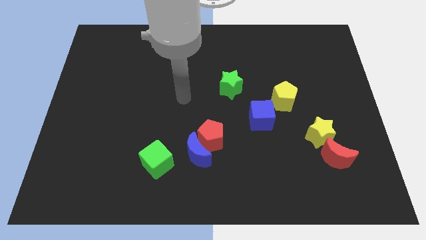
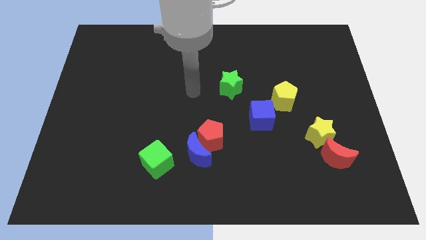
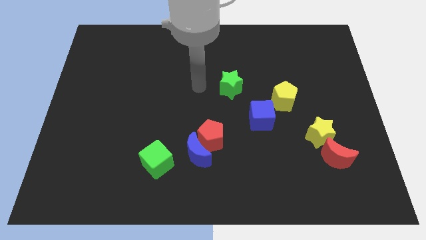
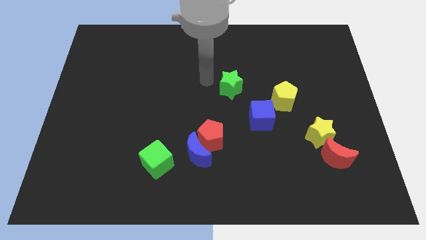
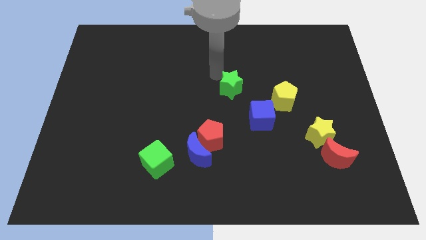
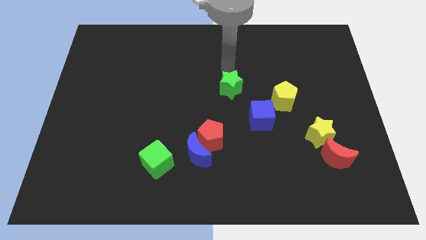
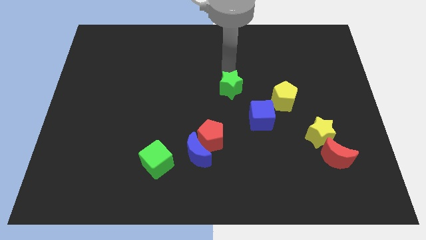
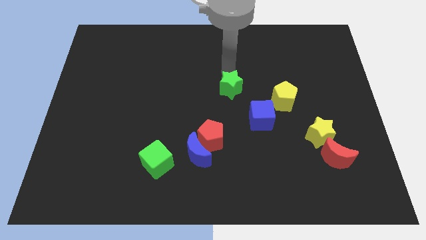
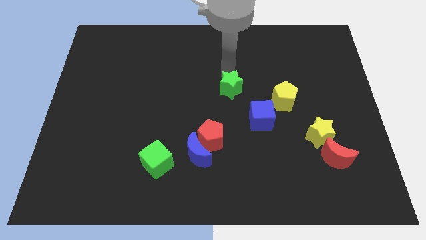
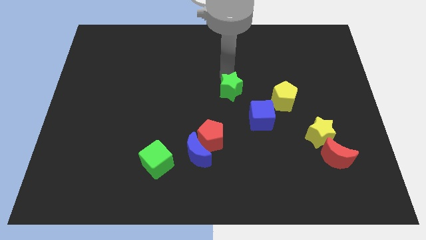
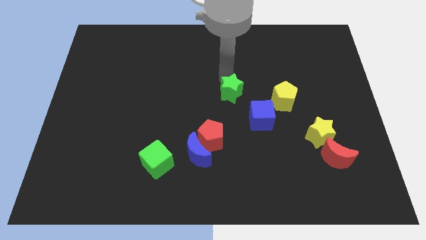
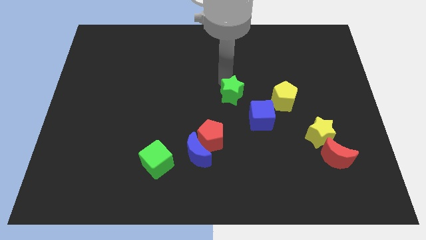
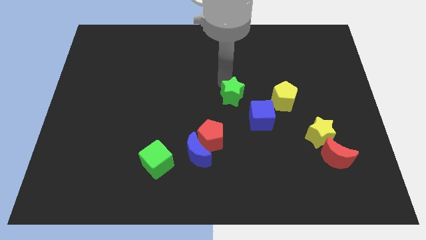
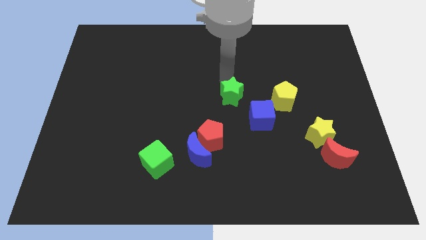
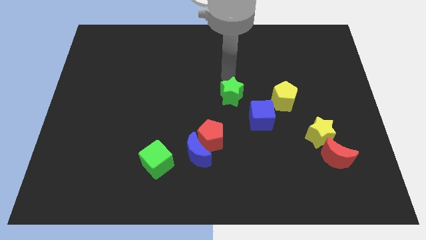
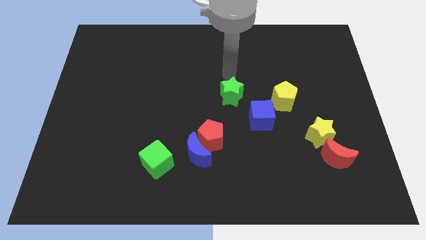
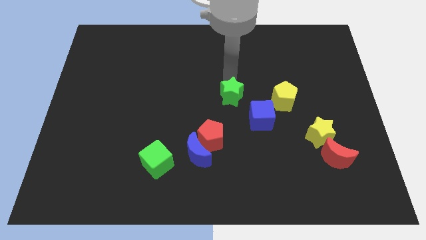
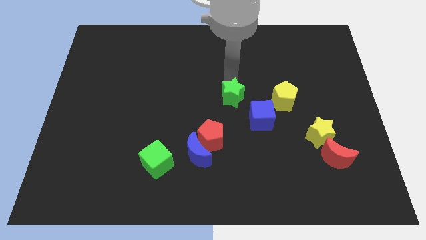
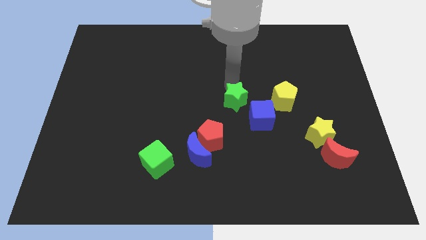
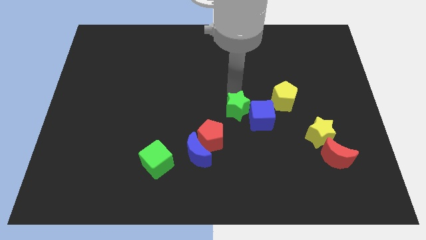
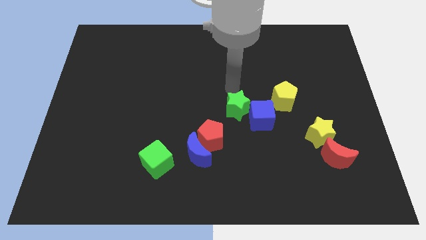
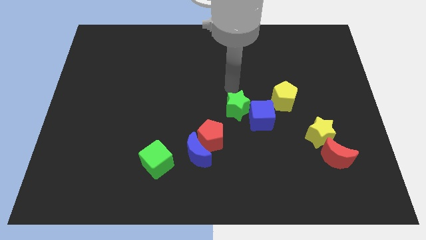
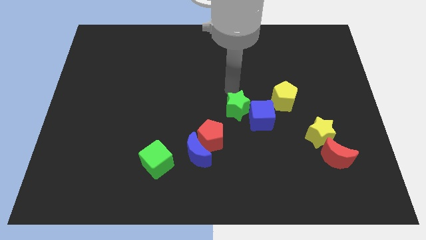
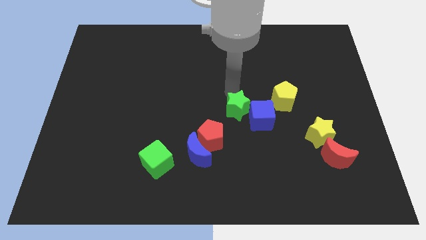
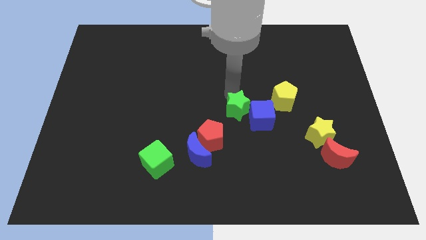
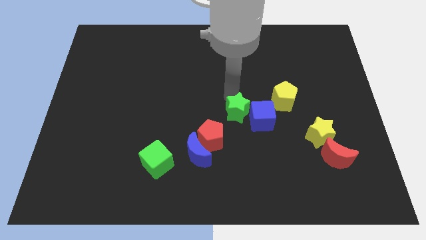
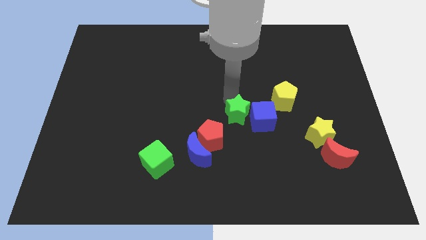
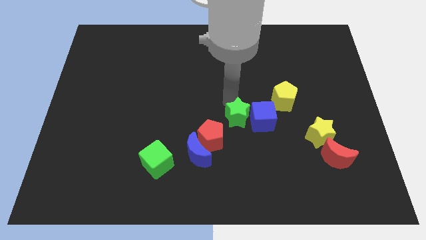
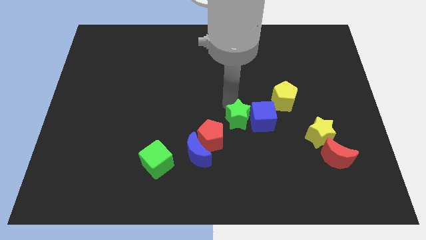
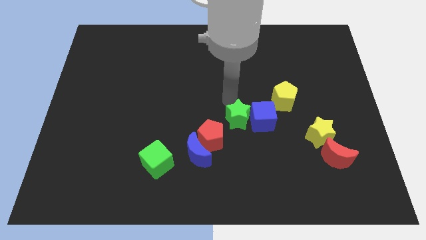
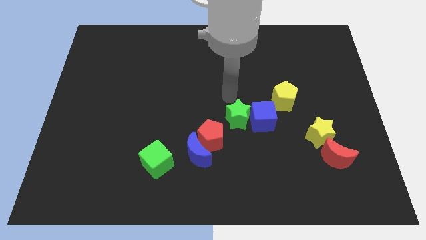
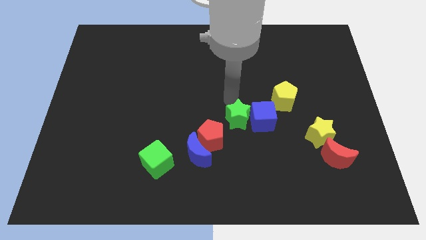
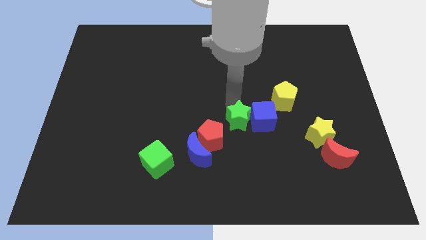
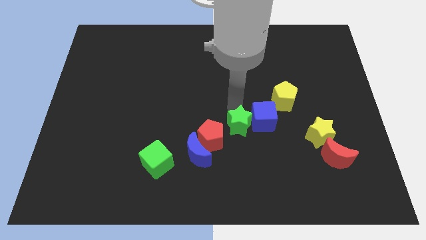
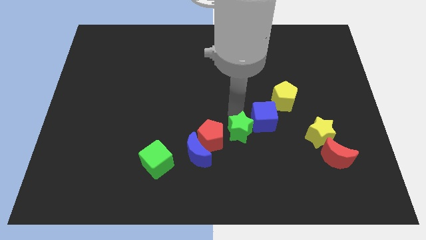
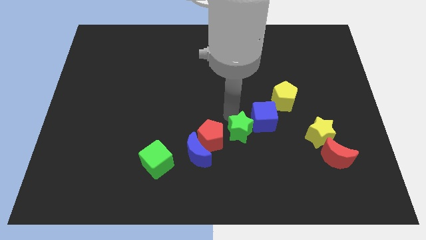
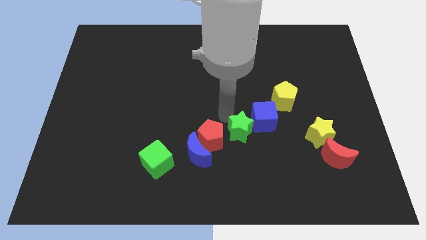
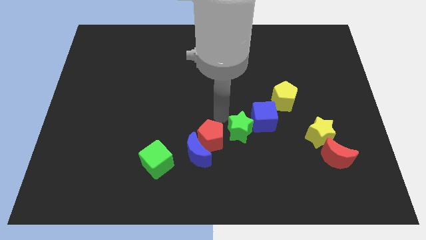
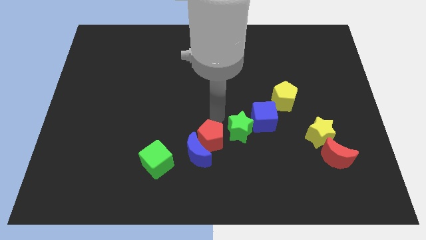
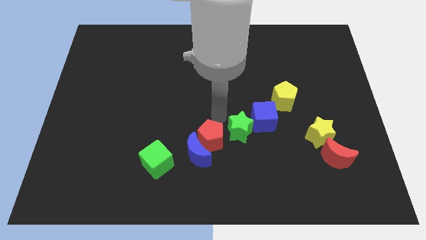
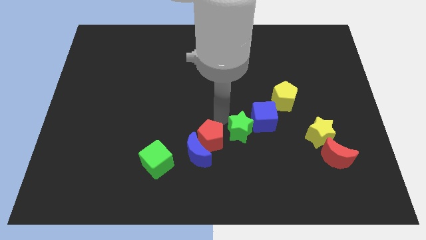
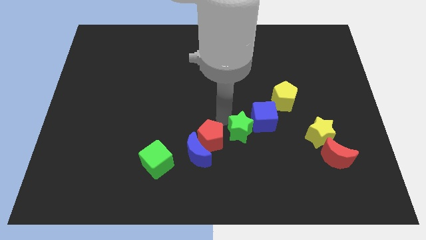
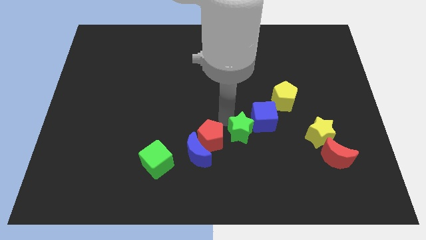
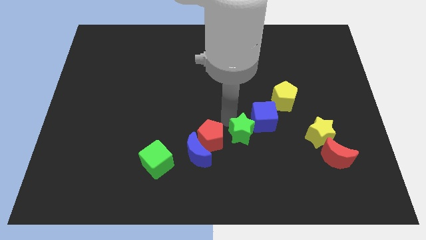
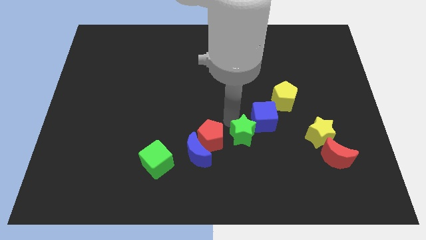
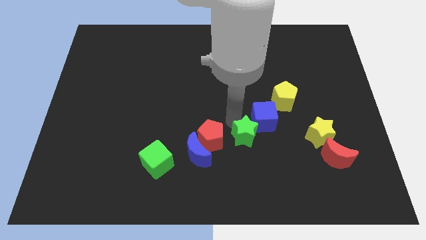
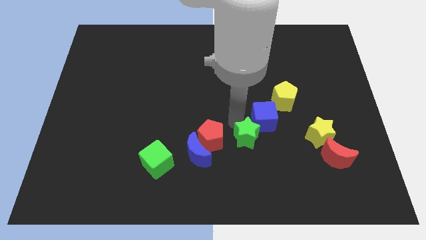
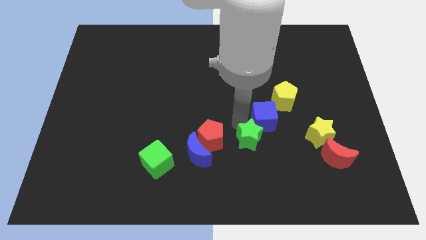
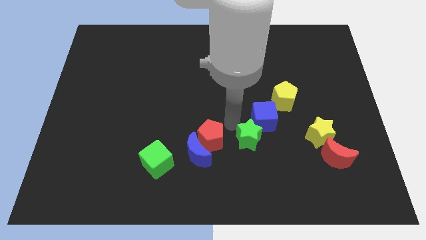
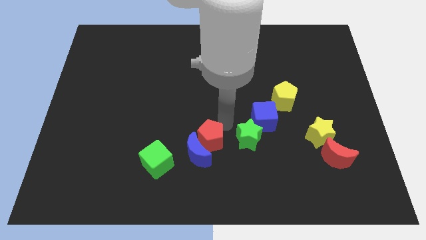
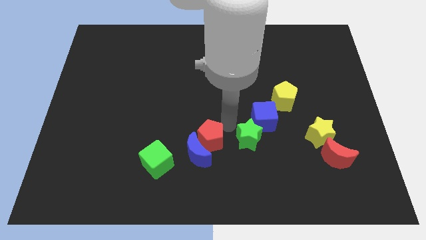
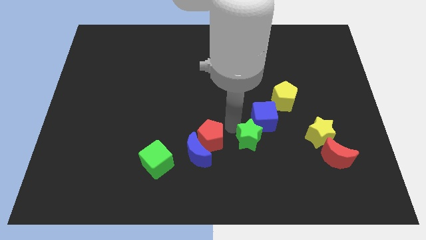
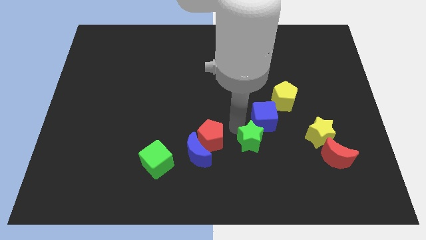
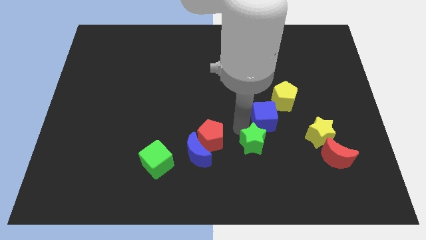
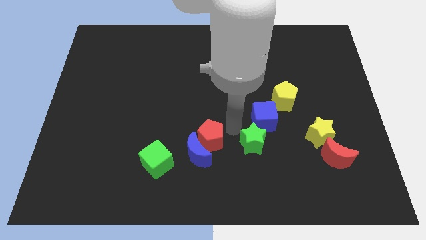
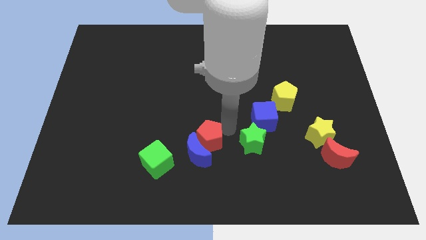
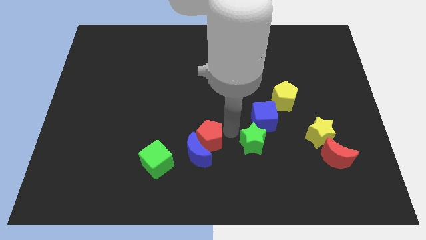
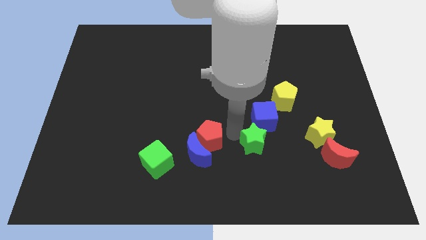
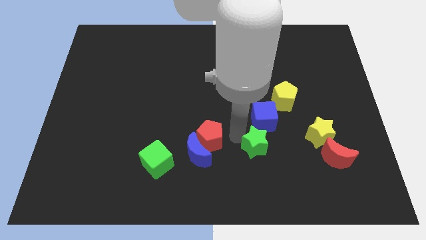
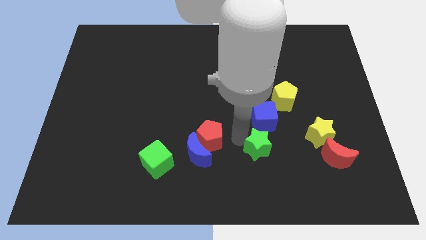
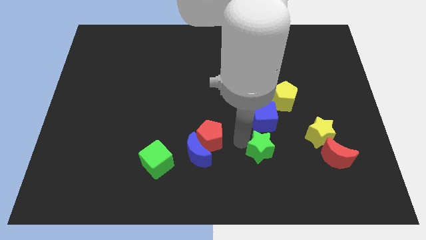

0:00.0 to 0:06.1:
put the green star to the left of the red moon

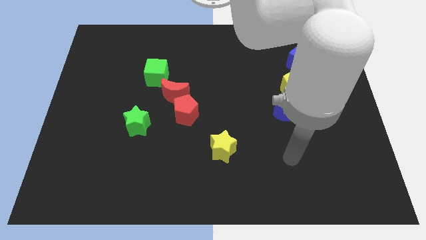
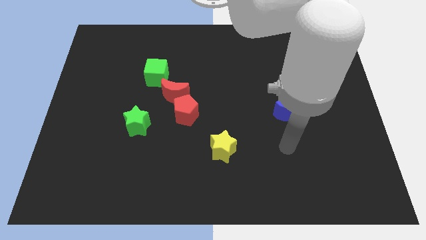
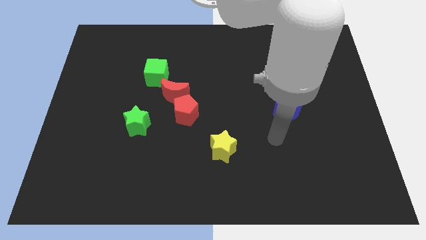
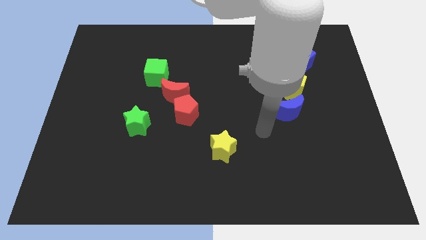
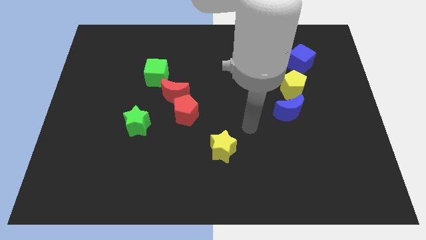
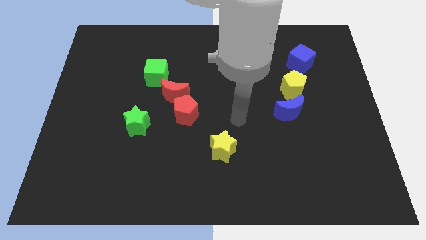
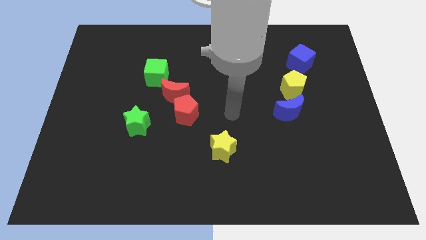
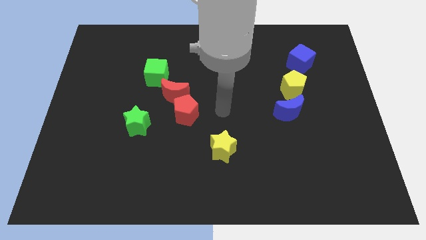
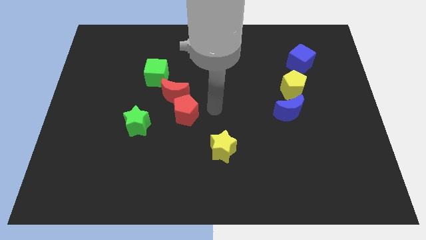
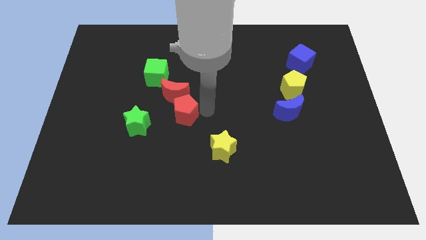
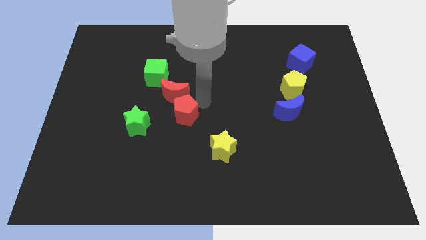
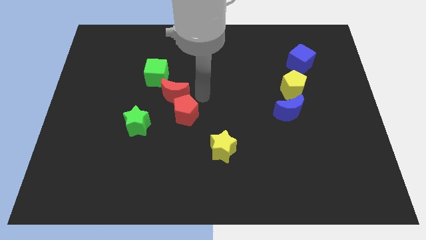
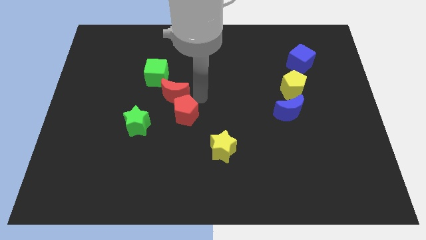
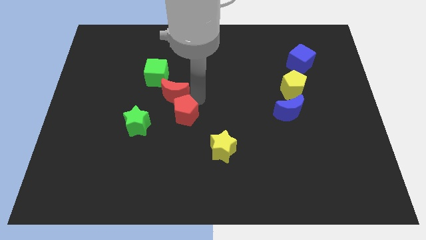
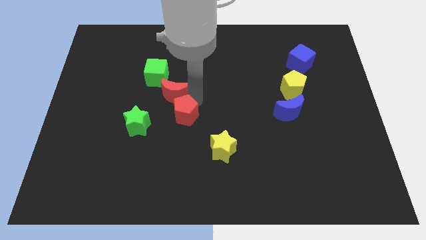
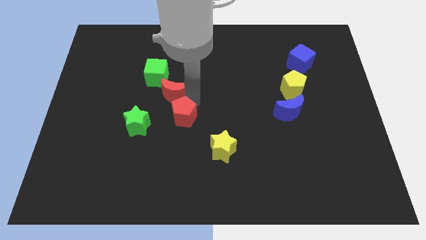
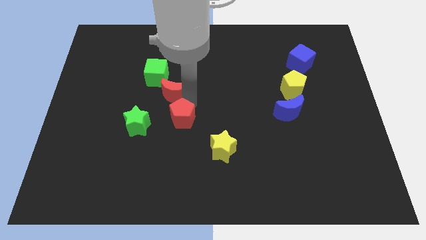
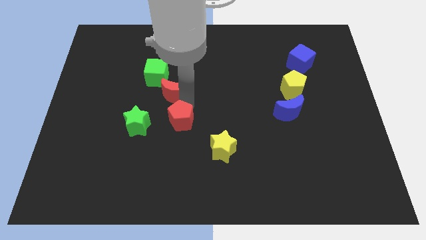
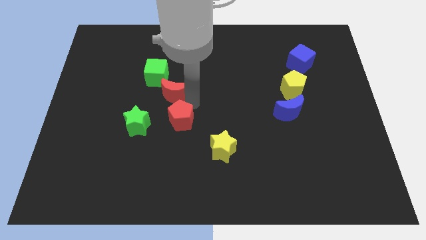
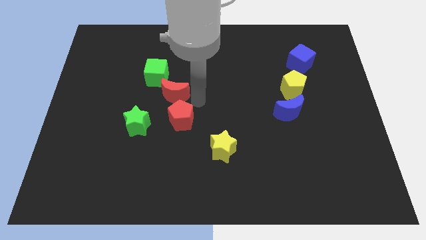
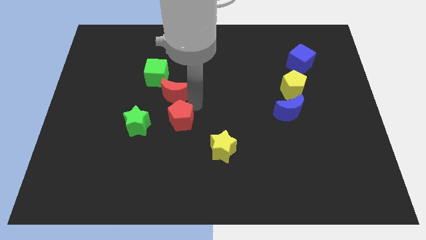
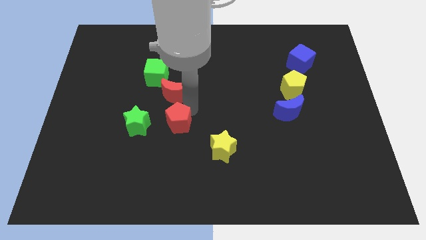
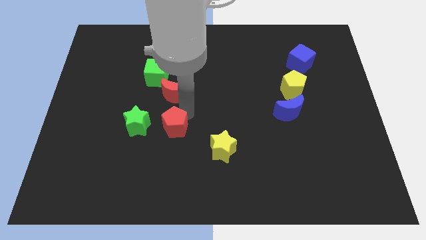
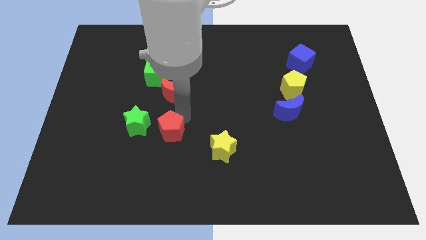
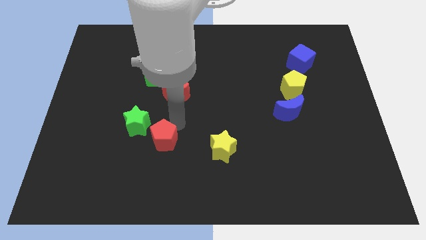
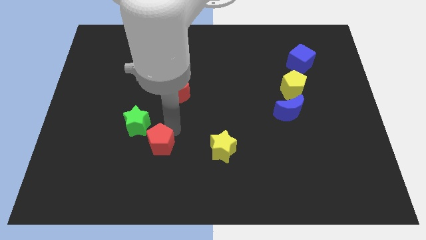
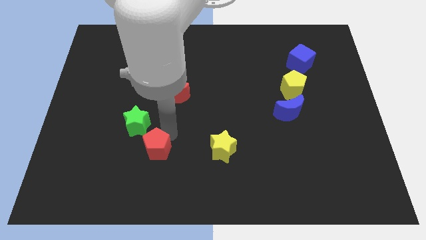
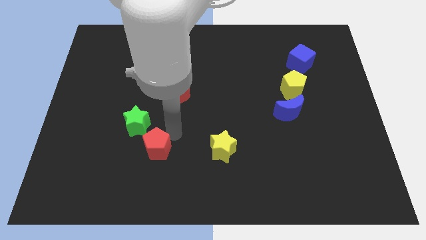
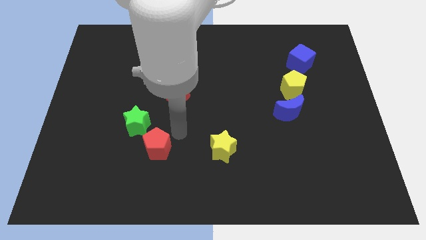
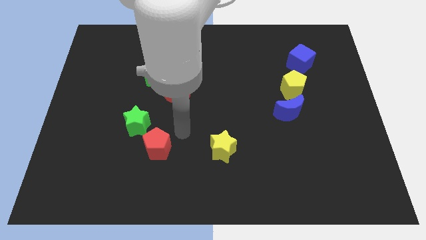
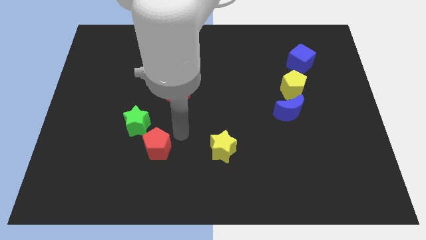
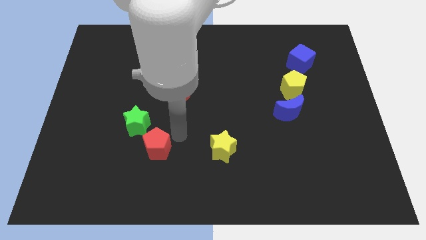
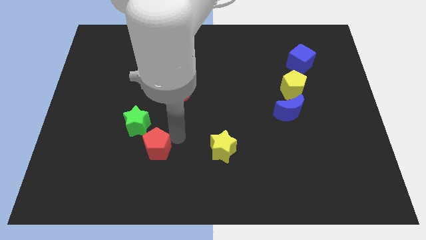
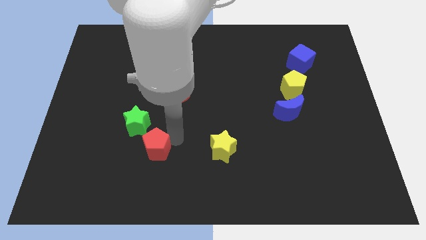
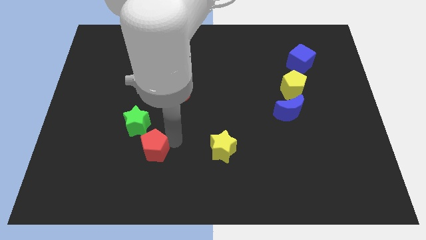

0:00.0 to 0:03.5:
move the red pentagon to the bottom side of the green star
